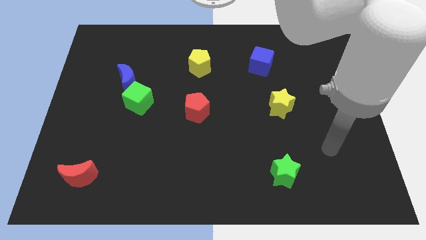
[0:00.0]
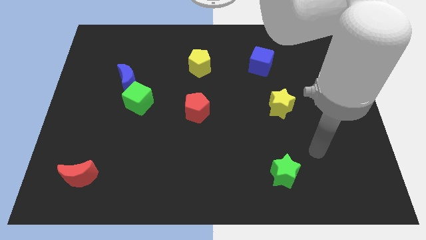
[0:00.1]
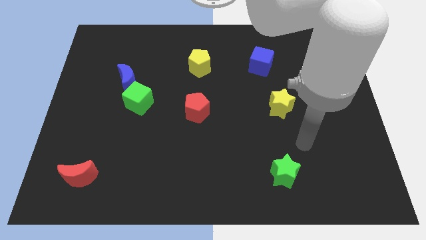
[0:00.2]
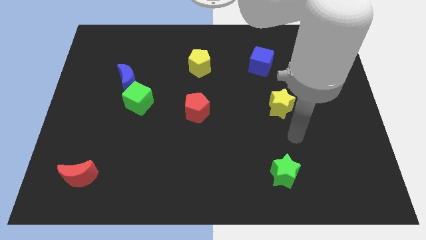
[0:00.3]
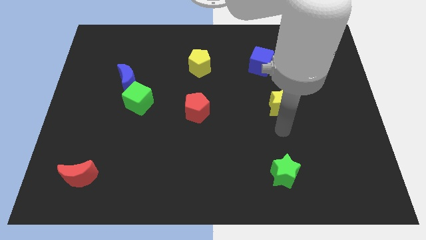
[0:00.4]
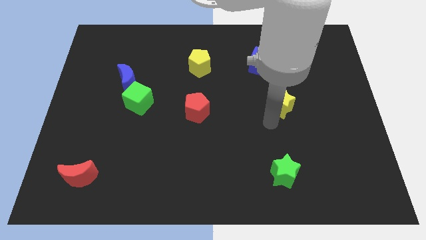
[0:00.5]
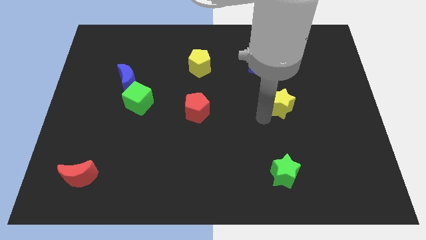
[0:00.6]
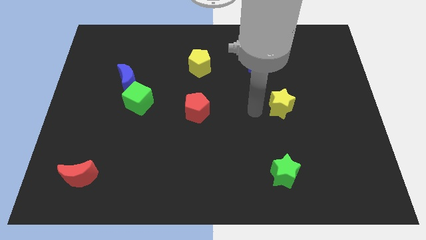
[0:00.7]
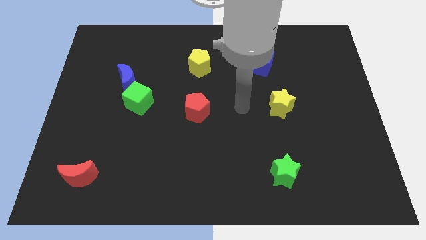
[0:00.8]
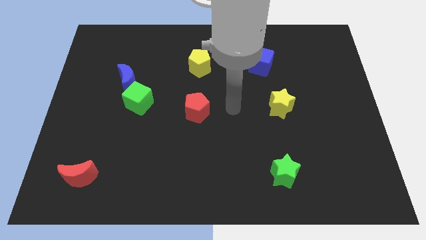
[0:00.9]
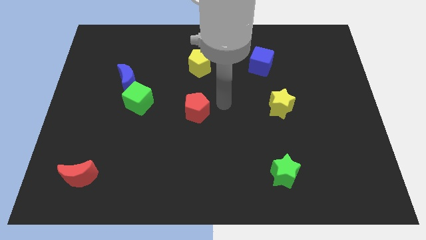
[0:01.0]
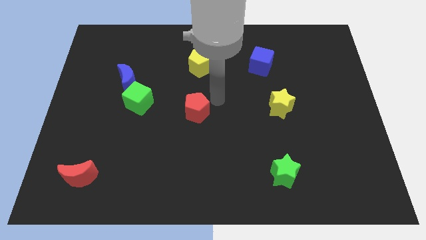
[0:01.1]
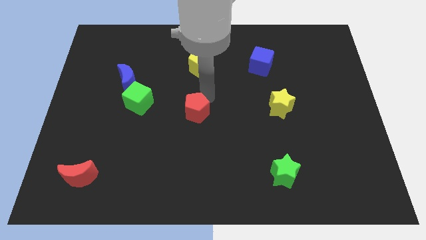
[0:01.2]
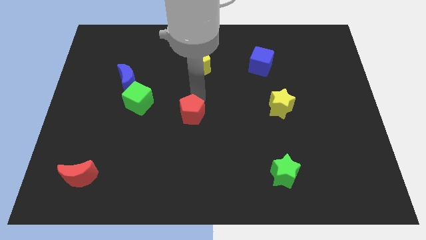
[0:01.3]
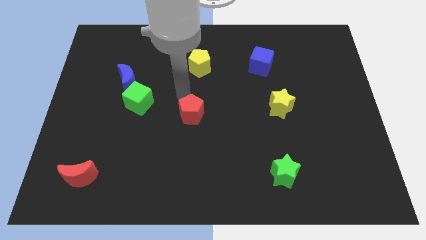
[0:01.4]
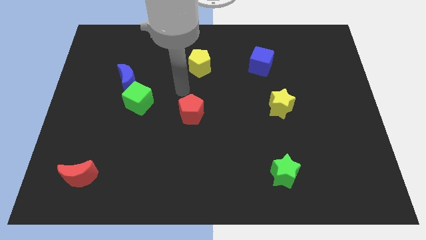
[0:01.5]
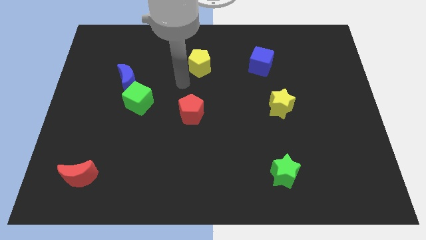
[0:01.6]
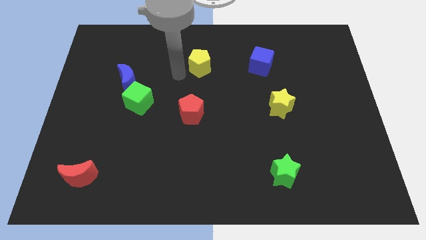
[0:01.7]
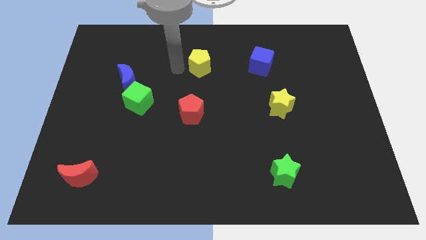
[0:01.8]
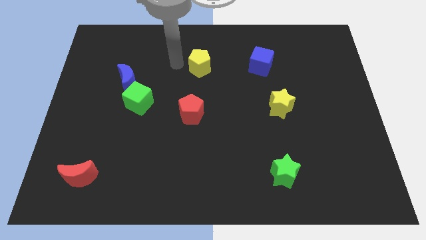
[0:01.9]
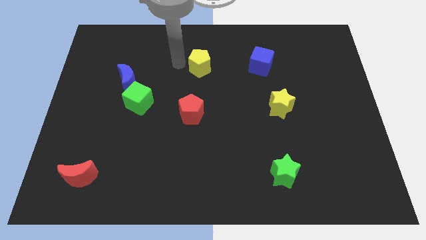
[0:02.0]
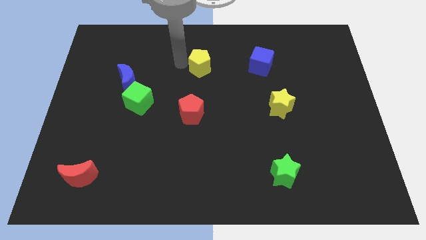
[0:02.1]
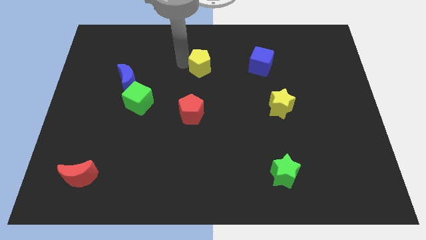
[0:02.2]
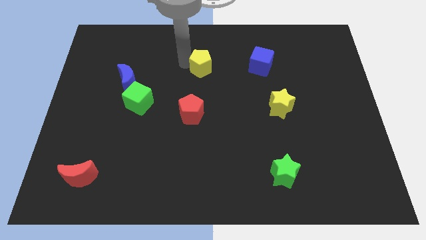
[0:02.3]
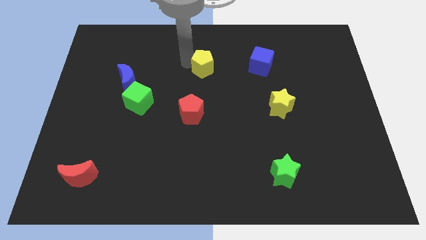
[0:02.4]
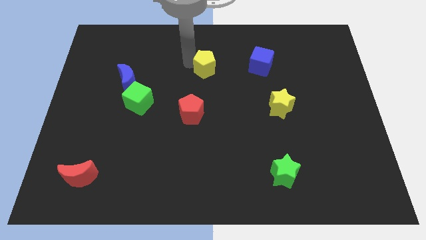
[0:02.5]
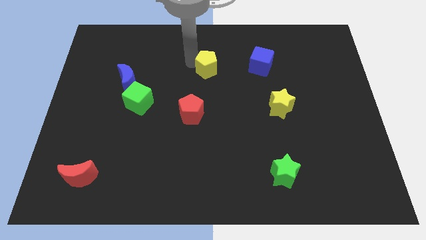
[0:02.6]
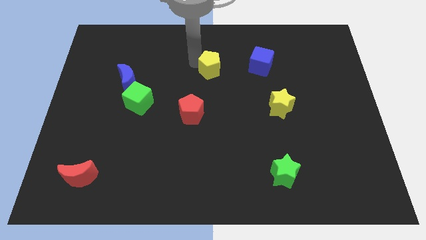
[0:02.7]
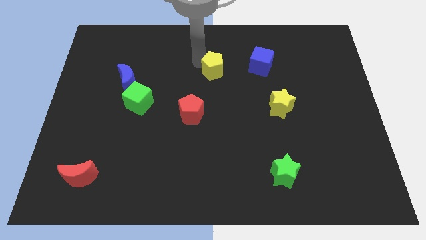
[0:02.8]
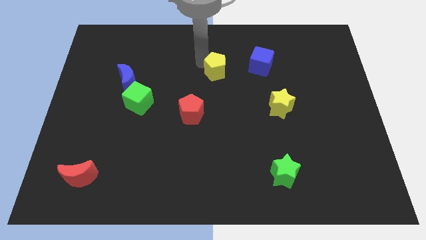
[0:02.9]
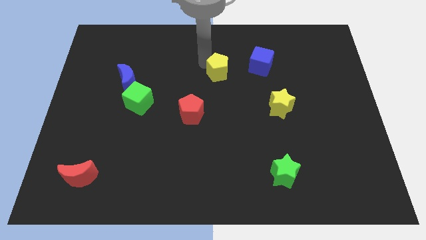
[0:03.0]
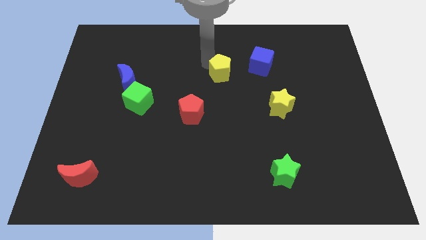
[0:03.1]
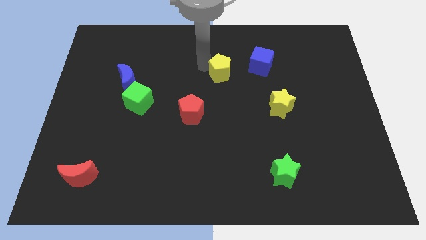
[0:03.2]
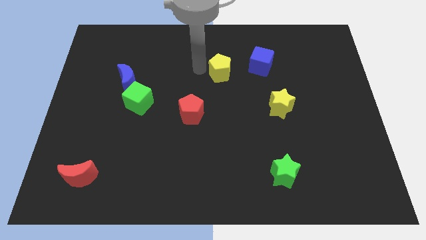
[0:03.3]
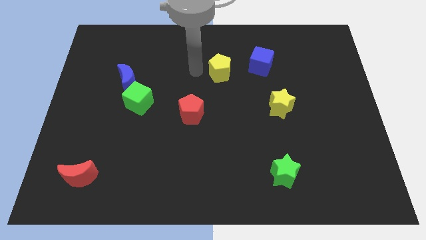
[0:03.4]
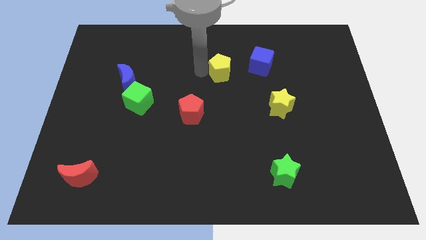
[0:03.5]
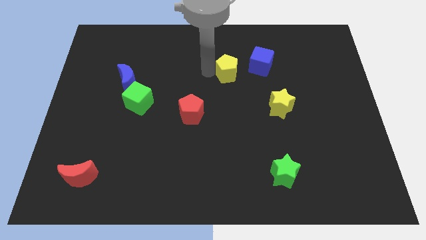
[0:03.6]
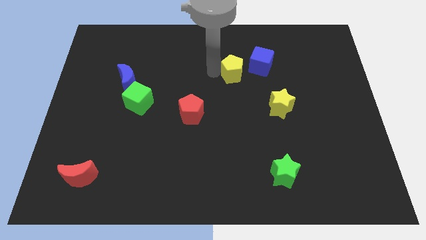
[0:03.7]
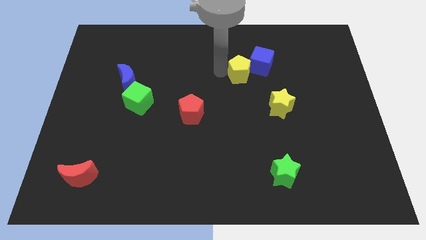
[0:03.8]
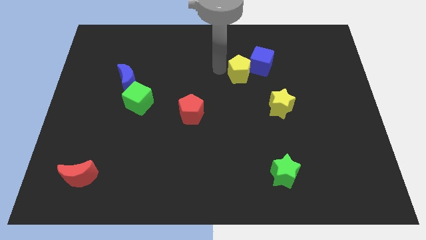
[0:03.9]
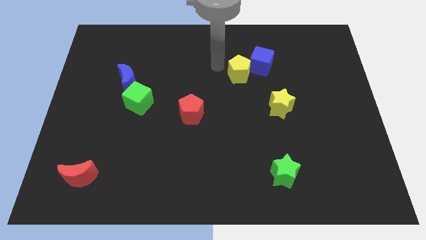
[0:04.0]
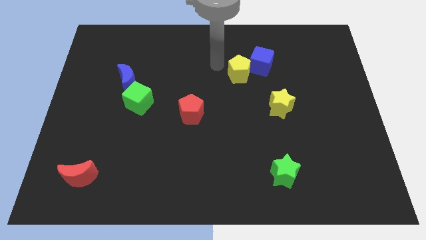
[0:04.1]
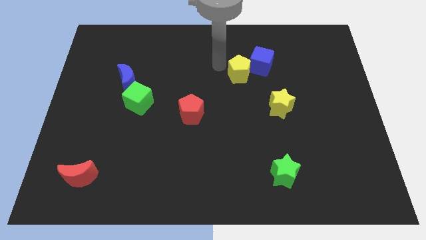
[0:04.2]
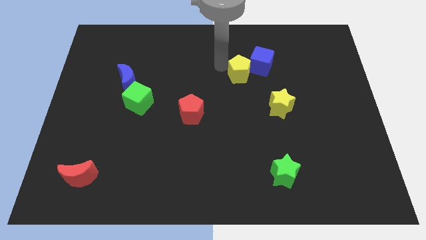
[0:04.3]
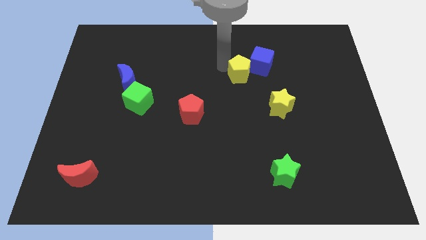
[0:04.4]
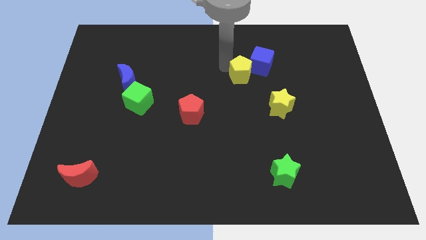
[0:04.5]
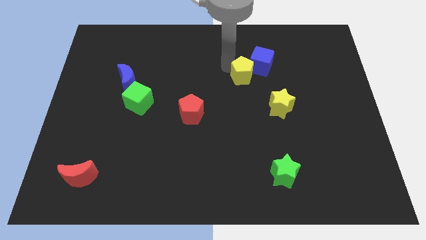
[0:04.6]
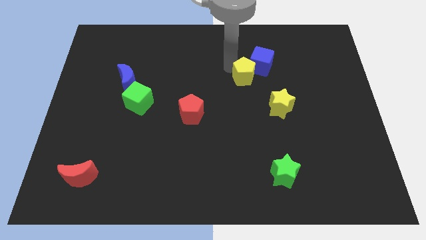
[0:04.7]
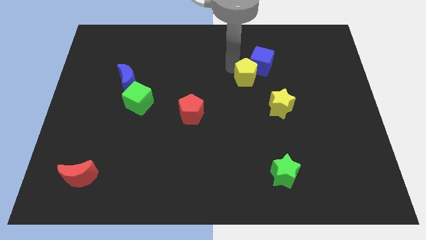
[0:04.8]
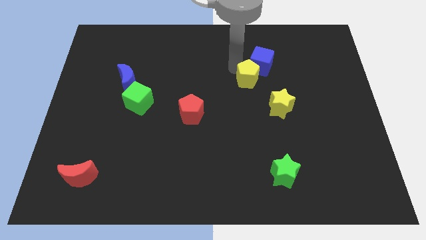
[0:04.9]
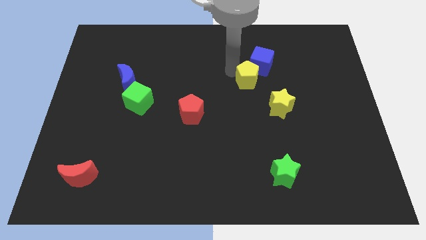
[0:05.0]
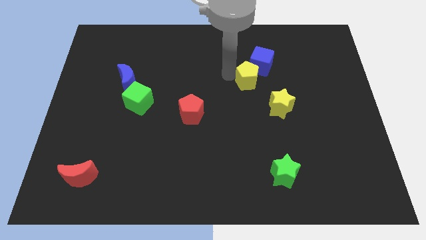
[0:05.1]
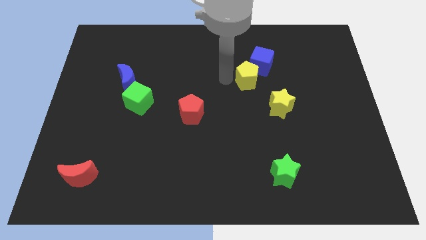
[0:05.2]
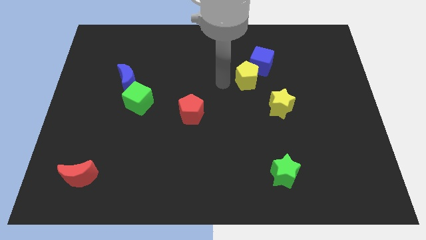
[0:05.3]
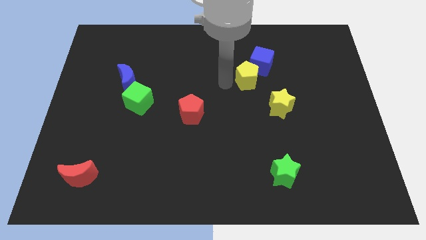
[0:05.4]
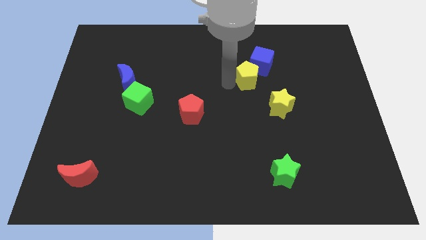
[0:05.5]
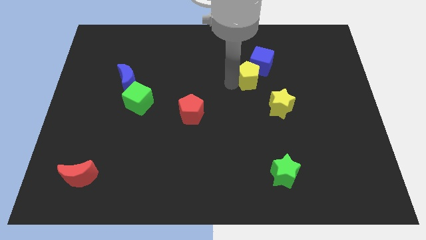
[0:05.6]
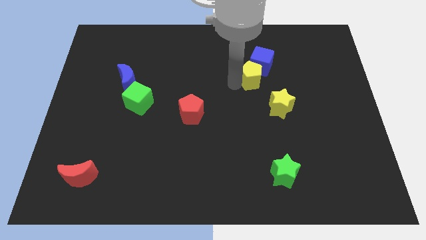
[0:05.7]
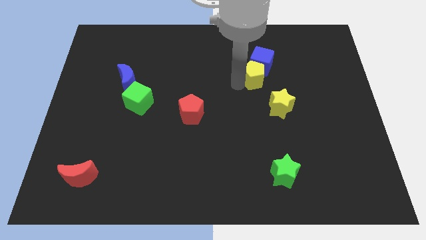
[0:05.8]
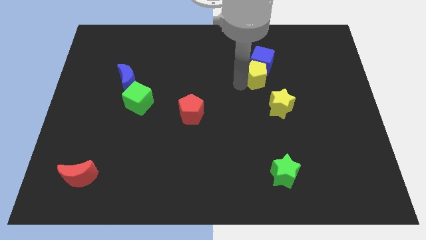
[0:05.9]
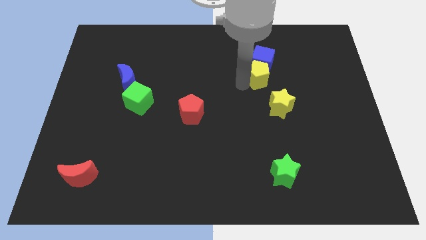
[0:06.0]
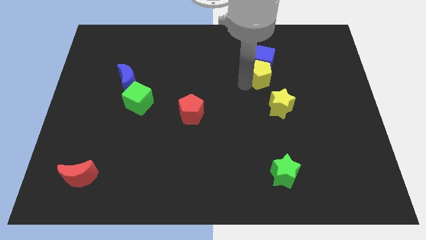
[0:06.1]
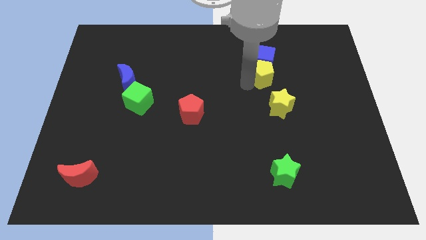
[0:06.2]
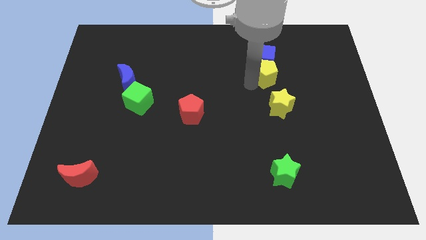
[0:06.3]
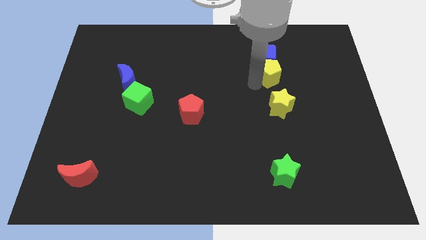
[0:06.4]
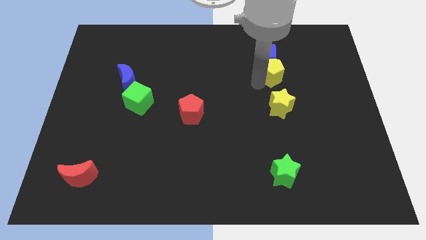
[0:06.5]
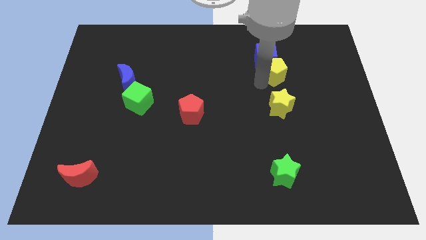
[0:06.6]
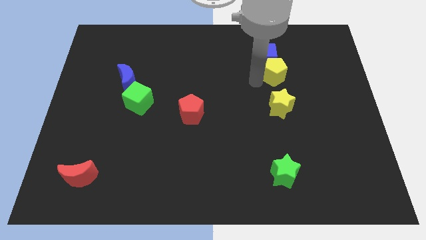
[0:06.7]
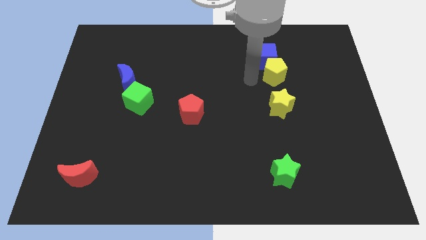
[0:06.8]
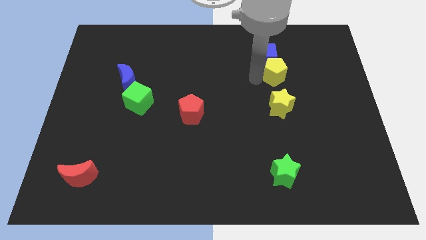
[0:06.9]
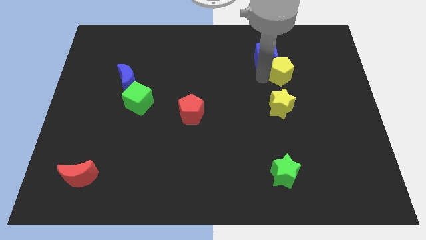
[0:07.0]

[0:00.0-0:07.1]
slide the yellow pentagon to the right

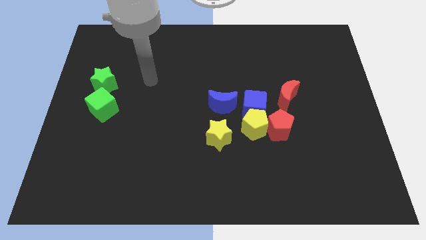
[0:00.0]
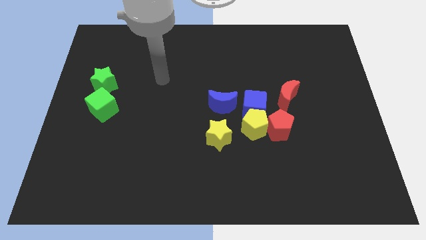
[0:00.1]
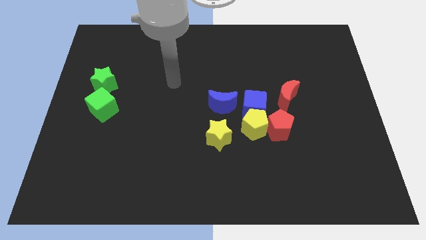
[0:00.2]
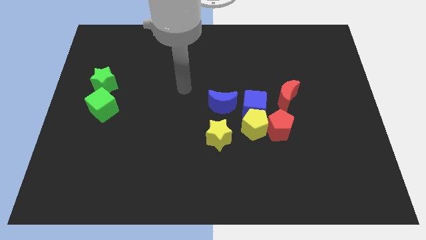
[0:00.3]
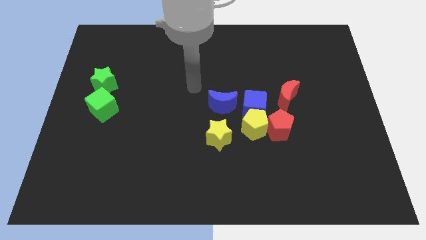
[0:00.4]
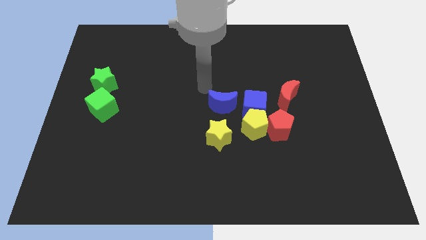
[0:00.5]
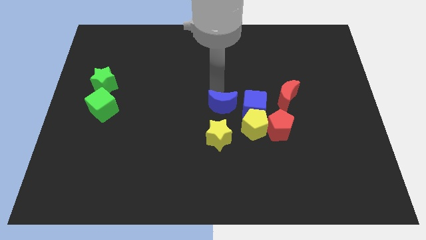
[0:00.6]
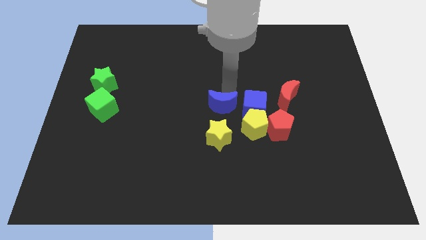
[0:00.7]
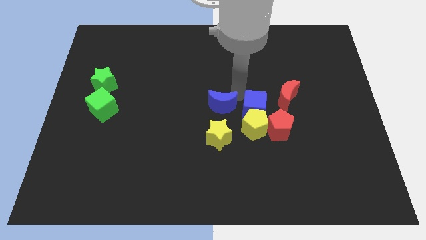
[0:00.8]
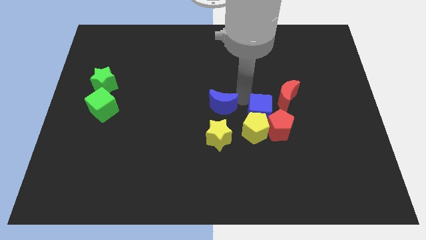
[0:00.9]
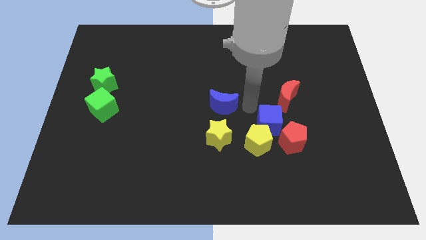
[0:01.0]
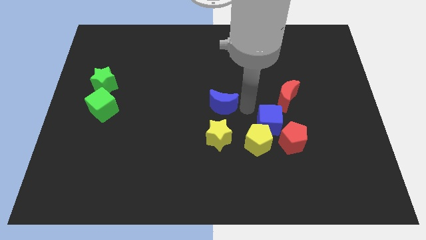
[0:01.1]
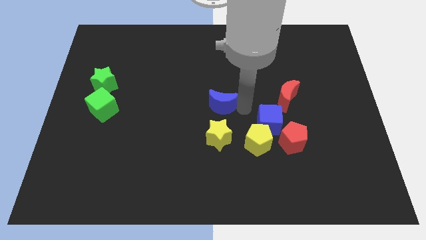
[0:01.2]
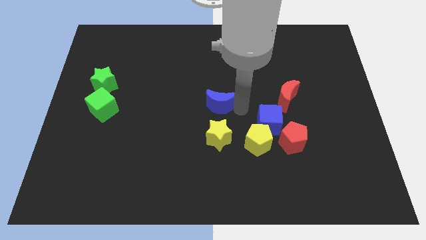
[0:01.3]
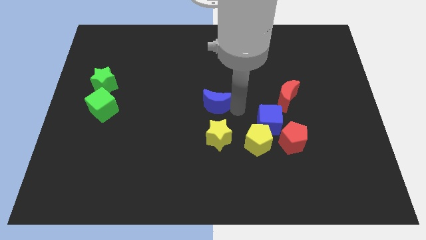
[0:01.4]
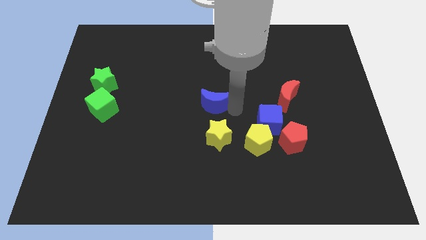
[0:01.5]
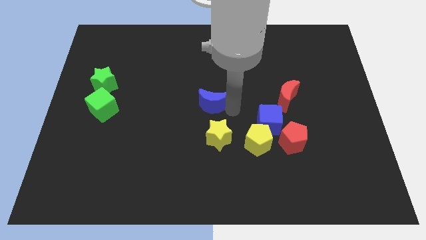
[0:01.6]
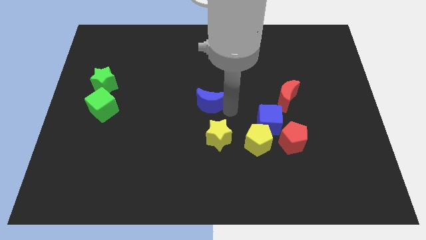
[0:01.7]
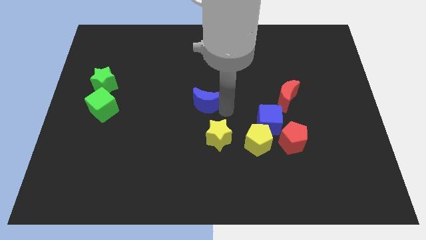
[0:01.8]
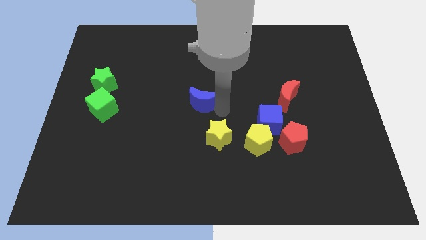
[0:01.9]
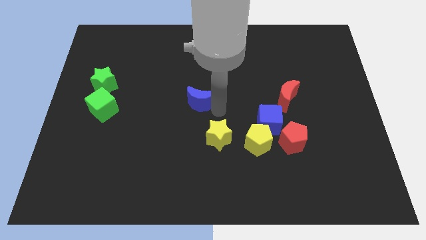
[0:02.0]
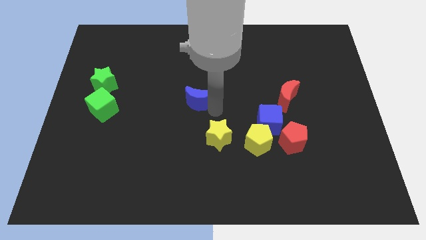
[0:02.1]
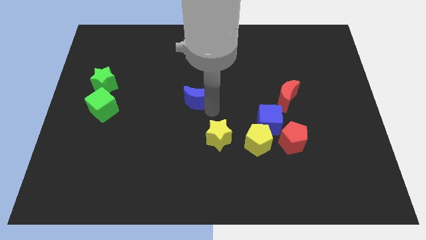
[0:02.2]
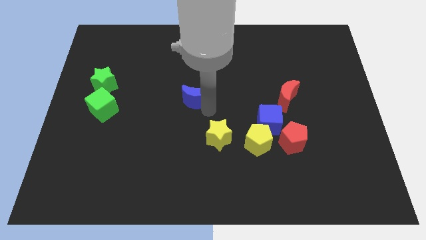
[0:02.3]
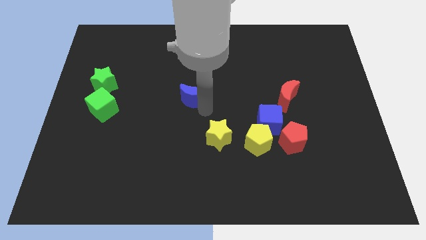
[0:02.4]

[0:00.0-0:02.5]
move the blue moon a little left
